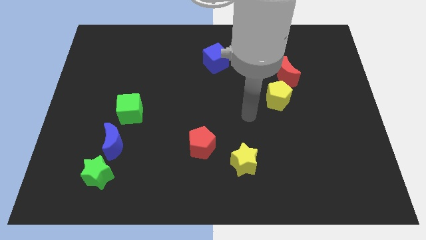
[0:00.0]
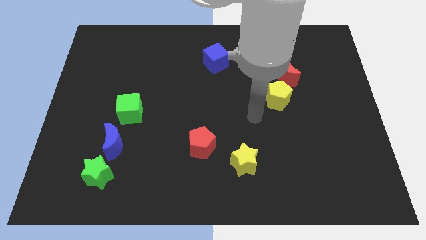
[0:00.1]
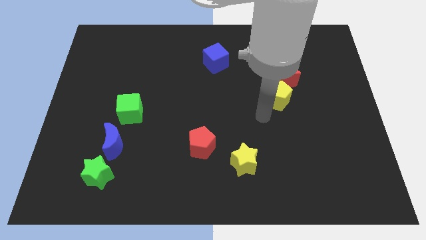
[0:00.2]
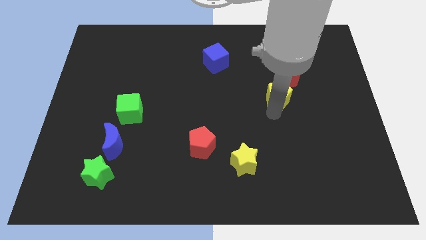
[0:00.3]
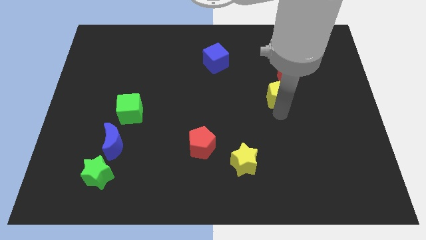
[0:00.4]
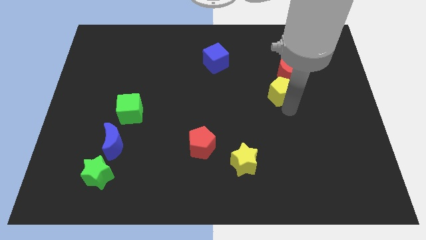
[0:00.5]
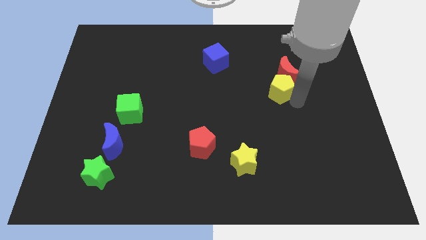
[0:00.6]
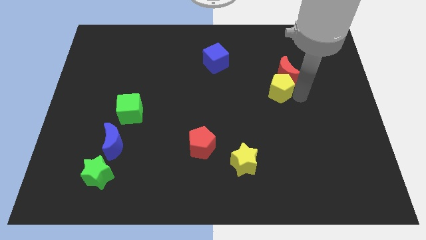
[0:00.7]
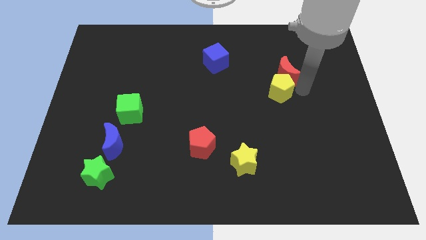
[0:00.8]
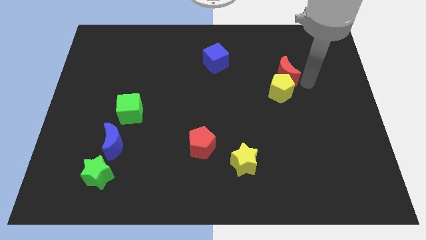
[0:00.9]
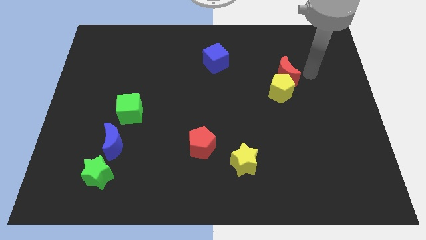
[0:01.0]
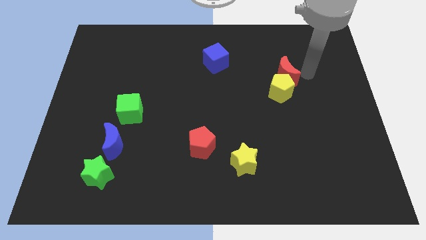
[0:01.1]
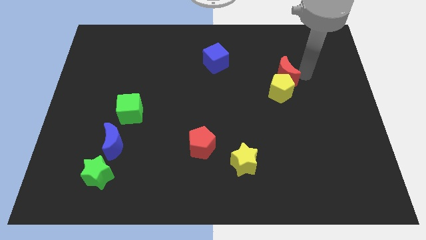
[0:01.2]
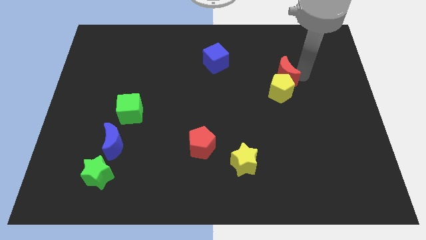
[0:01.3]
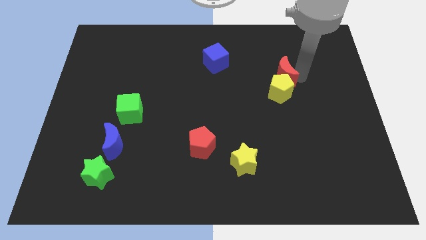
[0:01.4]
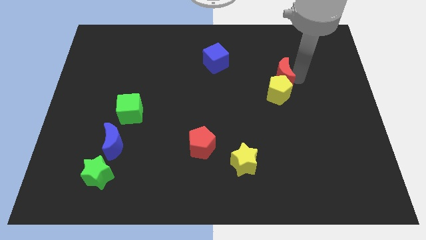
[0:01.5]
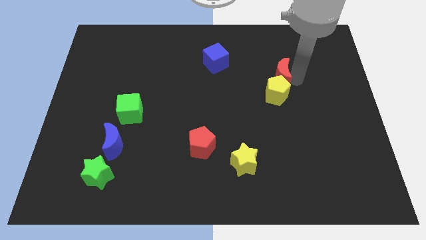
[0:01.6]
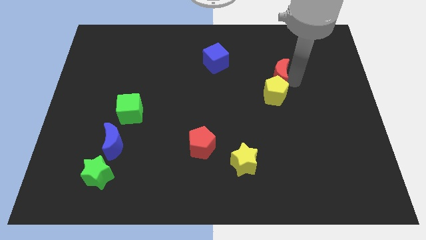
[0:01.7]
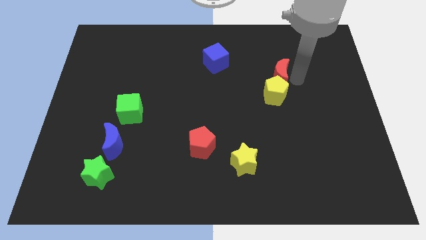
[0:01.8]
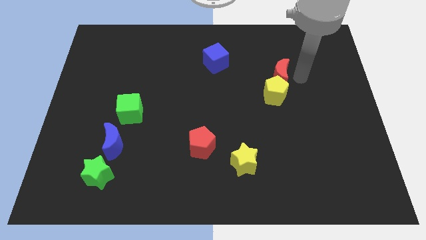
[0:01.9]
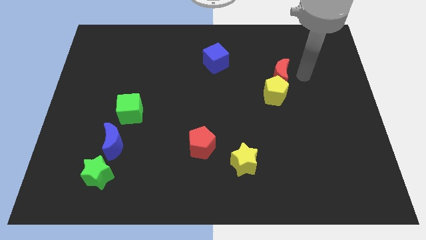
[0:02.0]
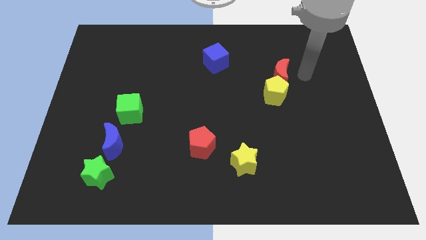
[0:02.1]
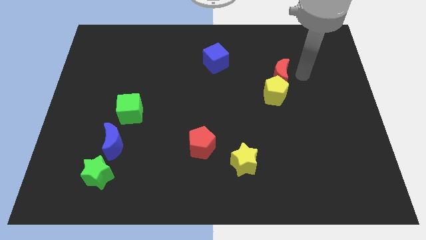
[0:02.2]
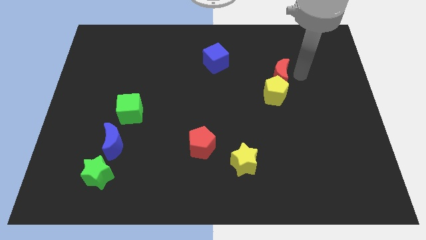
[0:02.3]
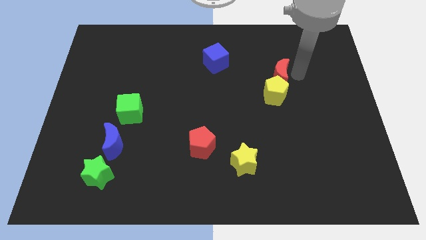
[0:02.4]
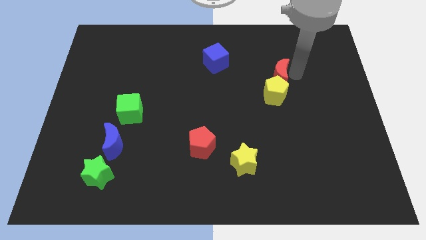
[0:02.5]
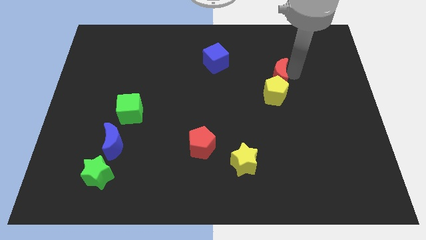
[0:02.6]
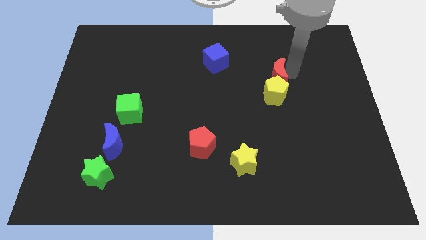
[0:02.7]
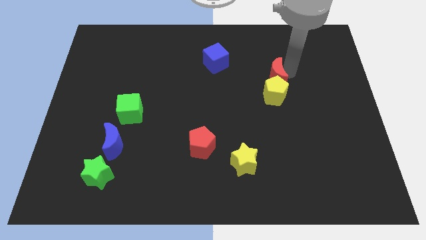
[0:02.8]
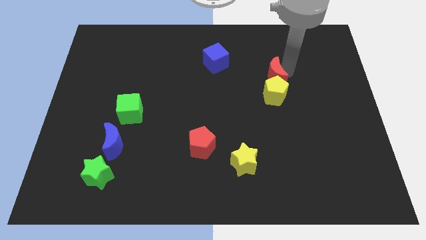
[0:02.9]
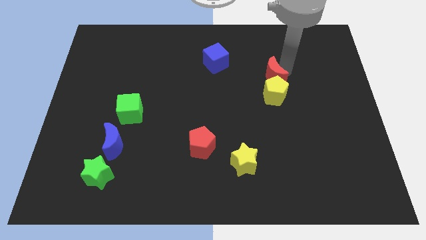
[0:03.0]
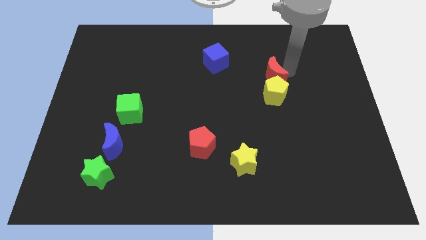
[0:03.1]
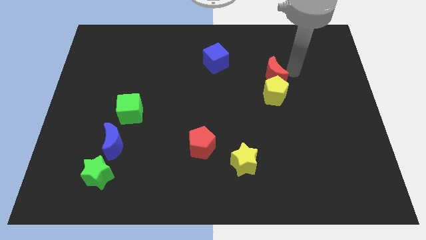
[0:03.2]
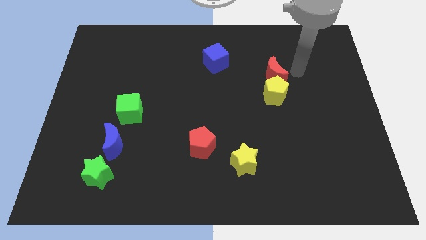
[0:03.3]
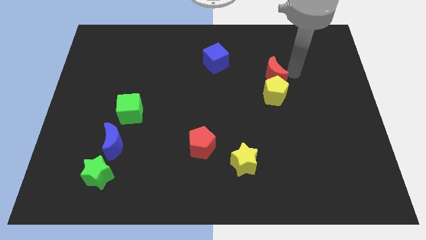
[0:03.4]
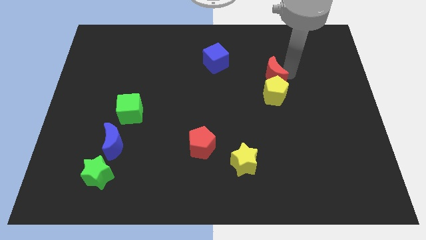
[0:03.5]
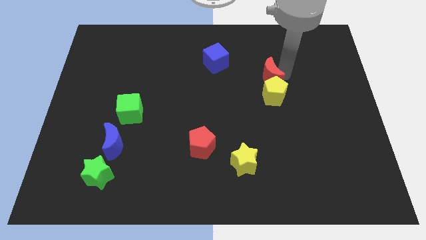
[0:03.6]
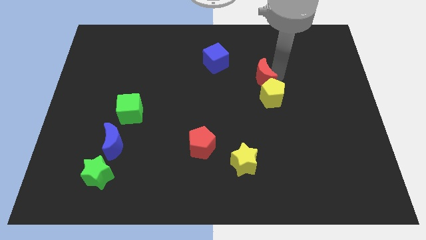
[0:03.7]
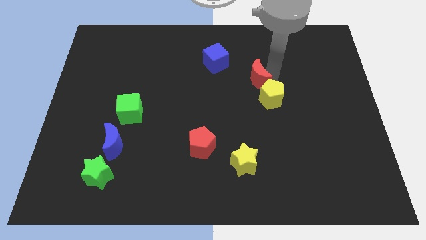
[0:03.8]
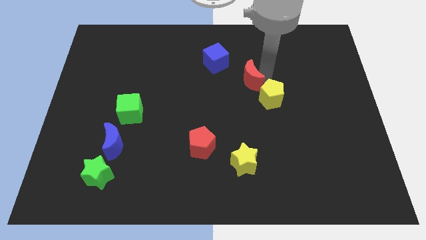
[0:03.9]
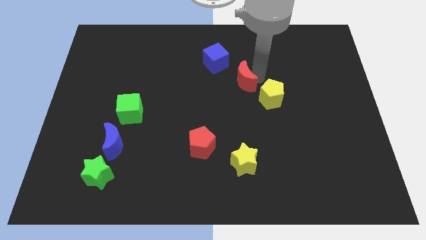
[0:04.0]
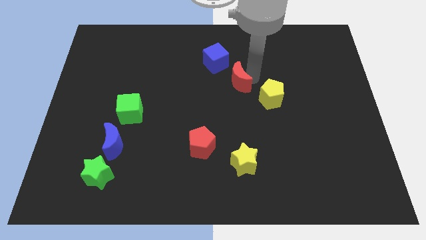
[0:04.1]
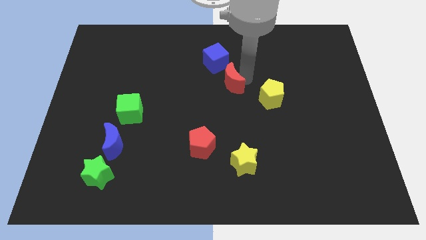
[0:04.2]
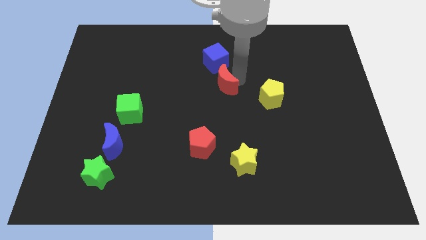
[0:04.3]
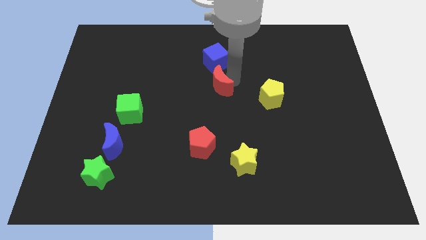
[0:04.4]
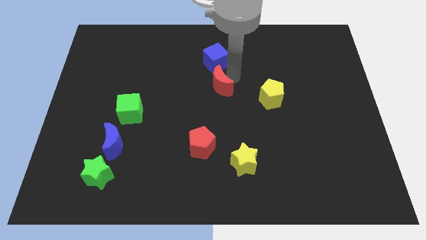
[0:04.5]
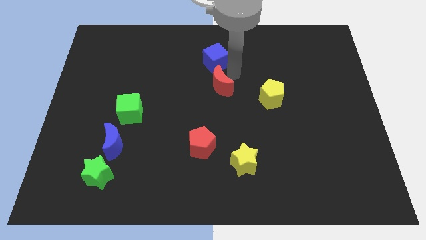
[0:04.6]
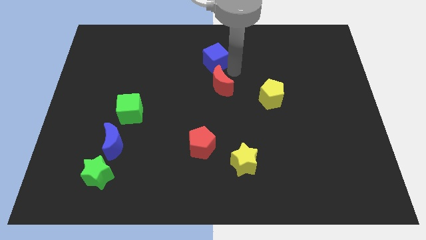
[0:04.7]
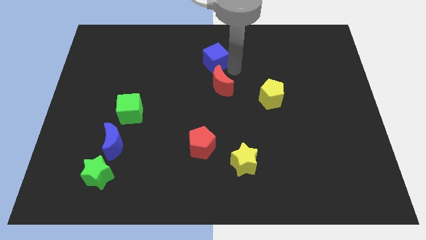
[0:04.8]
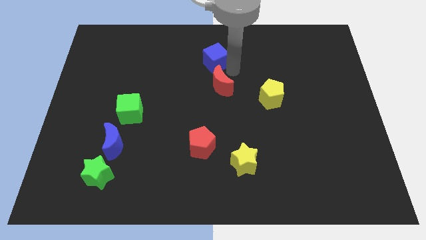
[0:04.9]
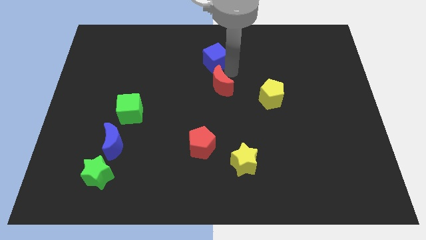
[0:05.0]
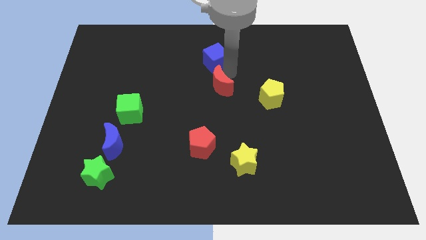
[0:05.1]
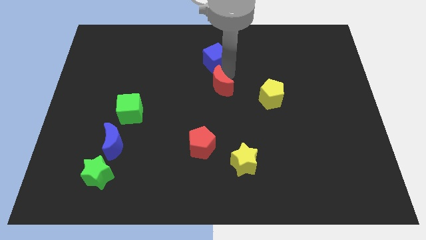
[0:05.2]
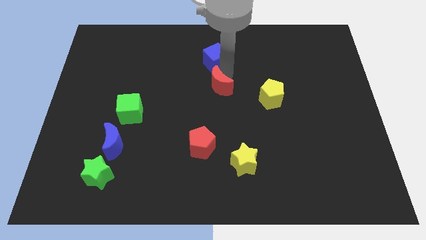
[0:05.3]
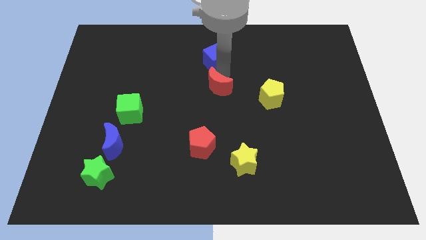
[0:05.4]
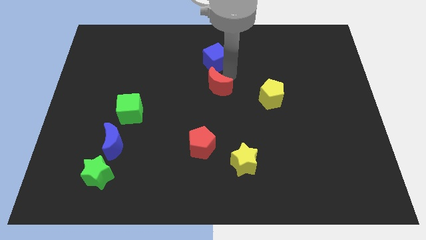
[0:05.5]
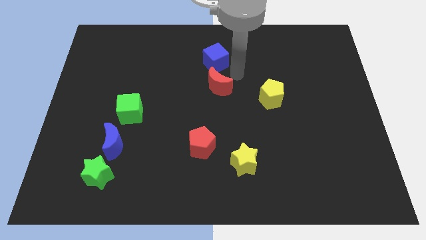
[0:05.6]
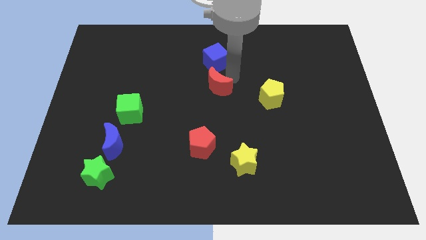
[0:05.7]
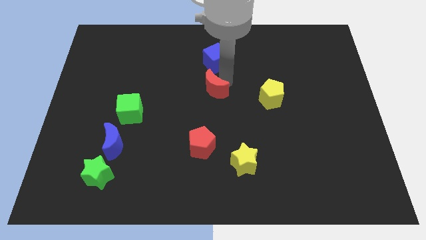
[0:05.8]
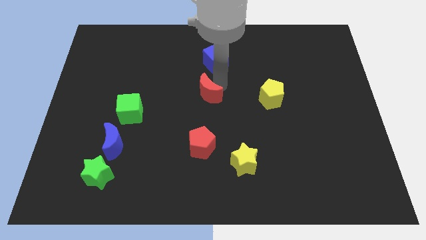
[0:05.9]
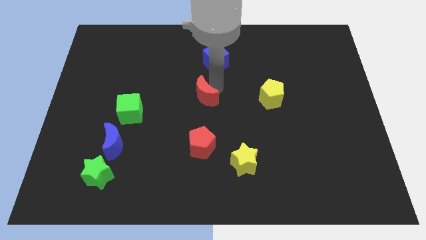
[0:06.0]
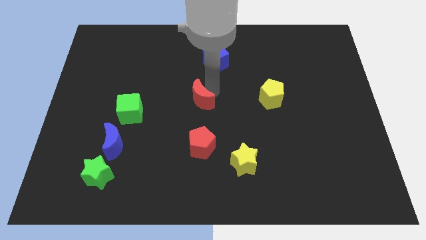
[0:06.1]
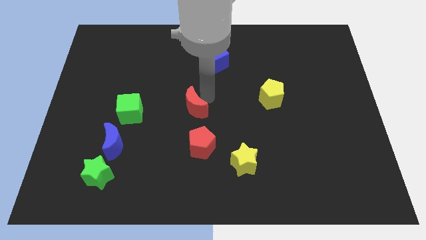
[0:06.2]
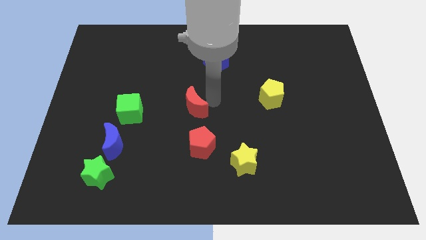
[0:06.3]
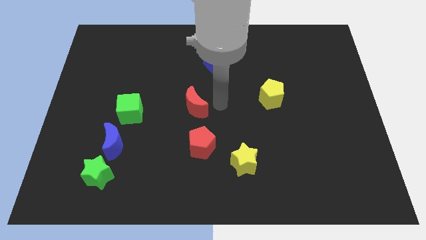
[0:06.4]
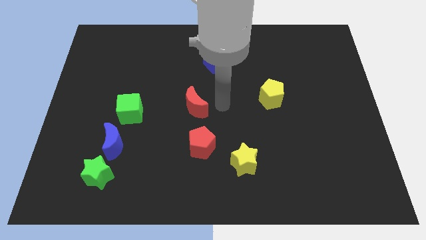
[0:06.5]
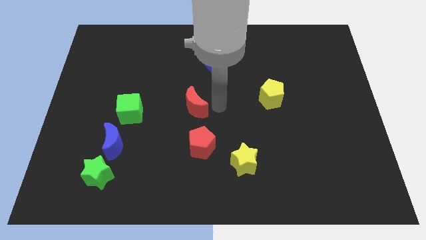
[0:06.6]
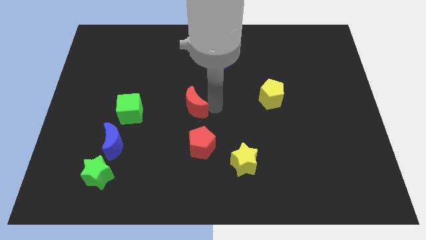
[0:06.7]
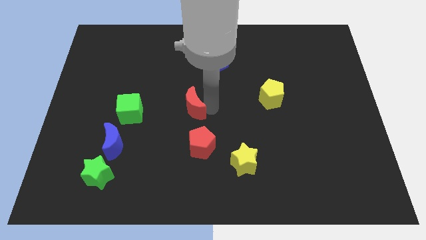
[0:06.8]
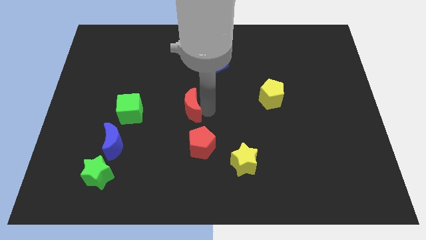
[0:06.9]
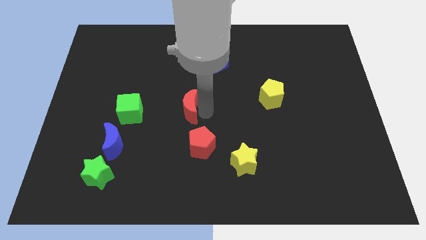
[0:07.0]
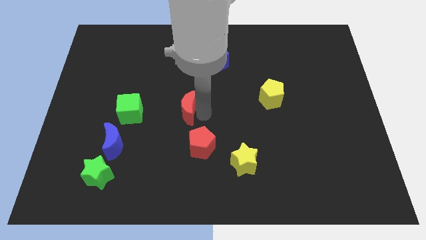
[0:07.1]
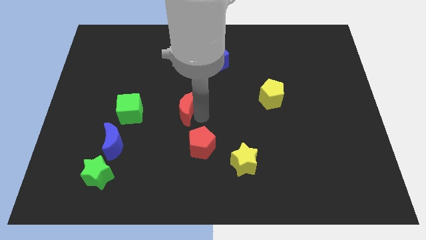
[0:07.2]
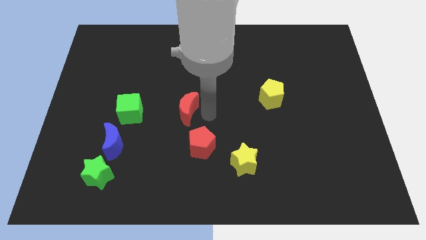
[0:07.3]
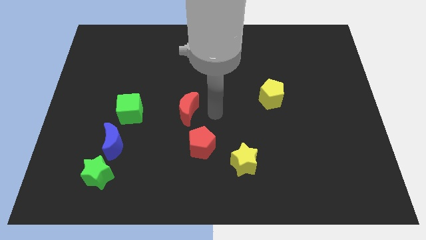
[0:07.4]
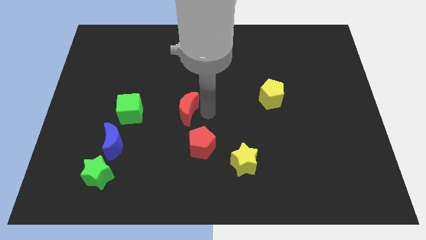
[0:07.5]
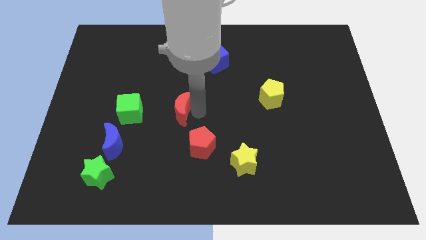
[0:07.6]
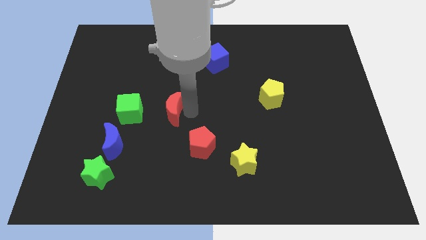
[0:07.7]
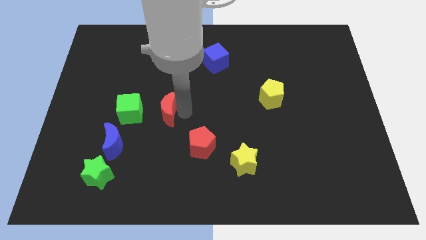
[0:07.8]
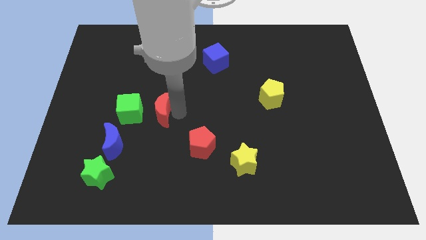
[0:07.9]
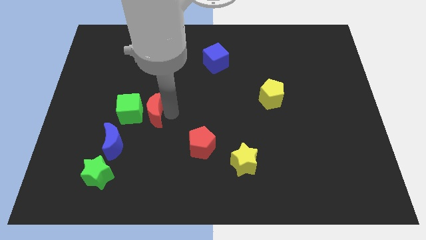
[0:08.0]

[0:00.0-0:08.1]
push the red moon next to the green cube
